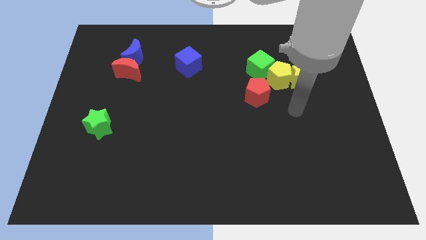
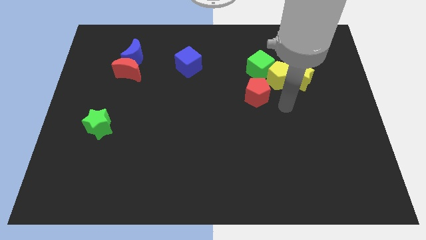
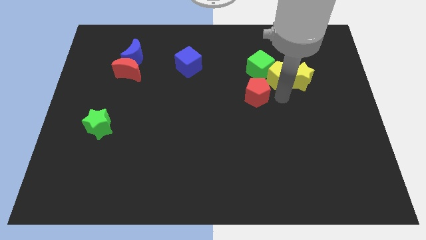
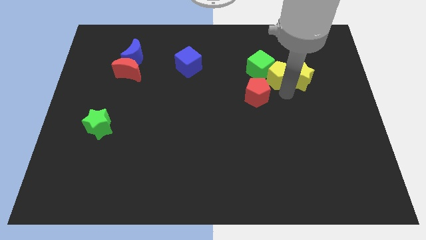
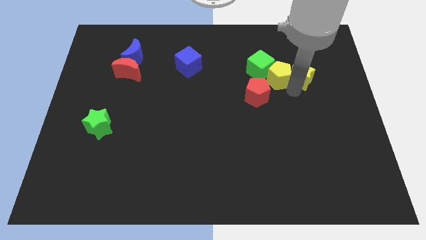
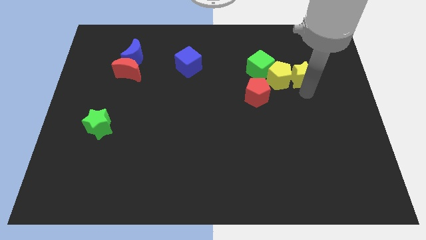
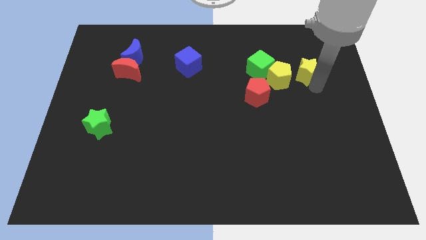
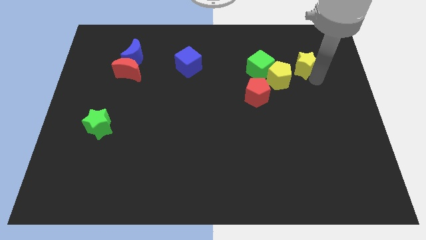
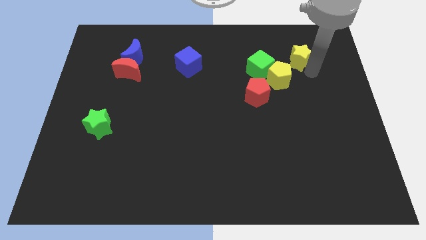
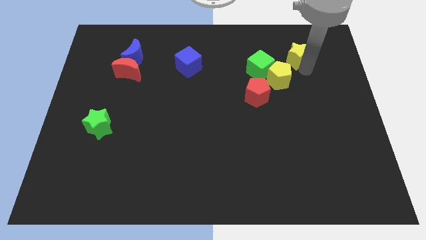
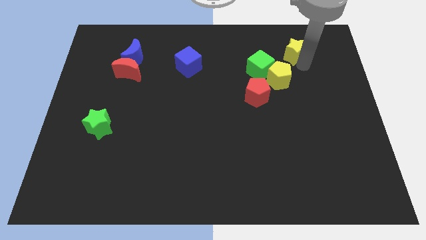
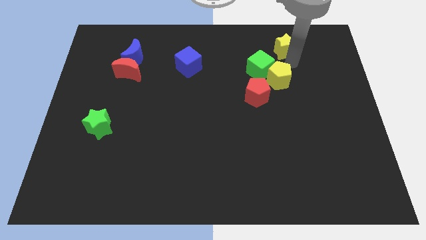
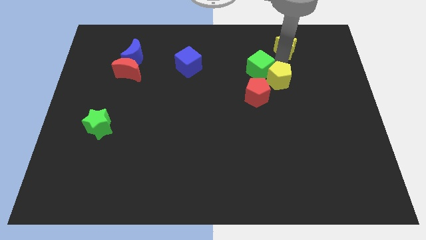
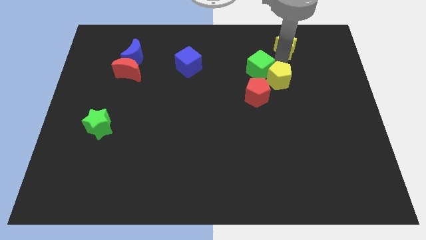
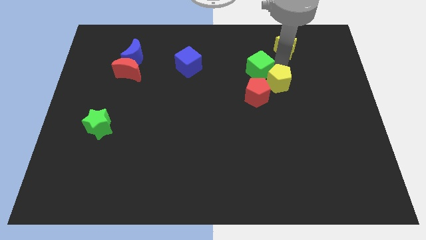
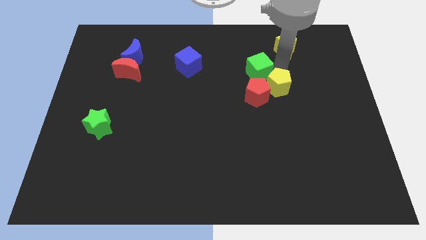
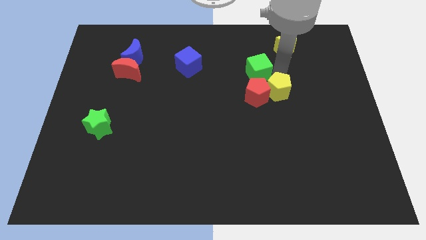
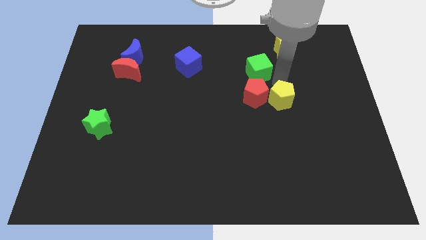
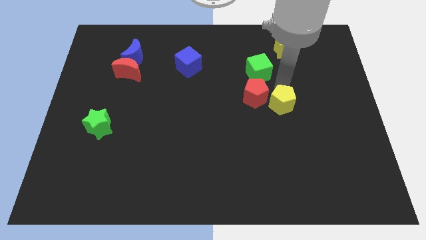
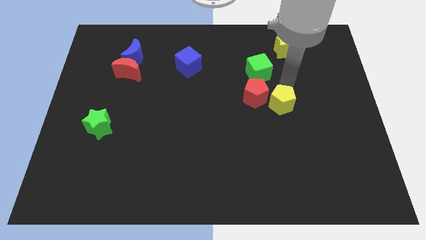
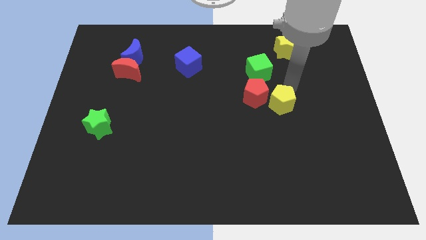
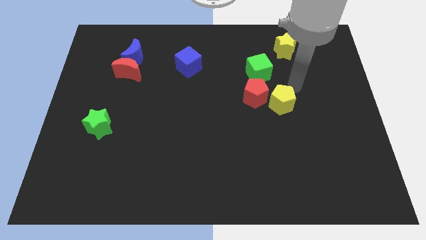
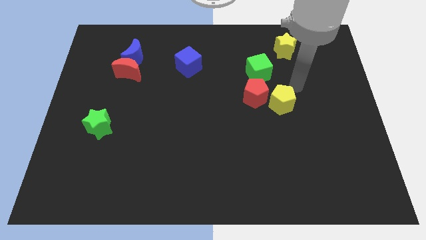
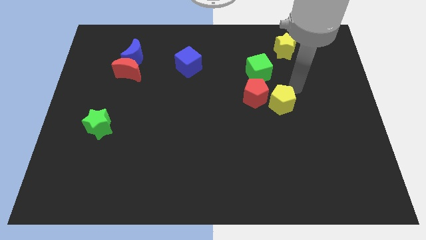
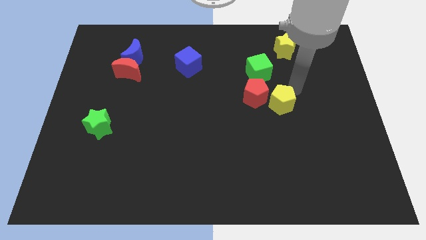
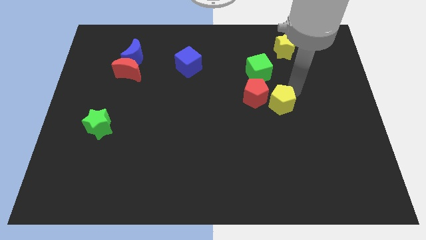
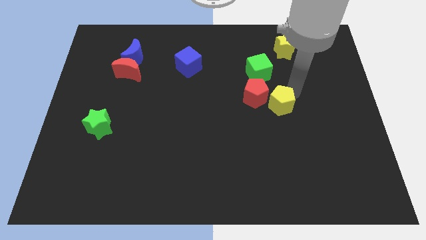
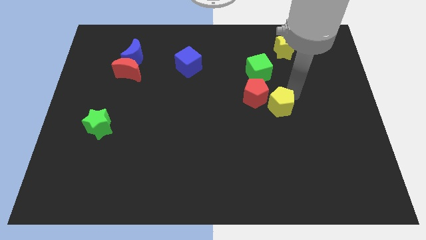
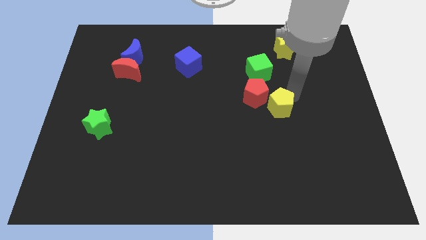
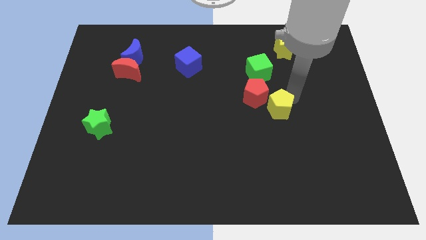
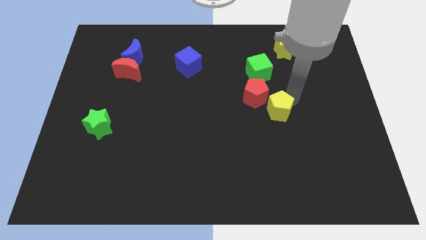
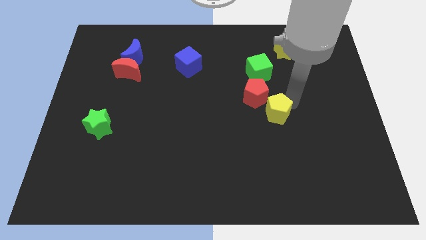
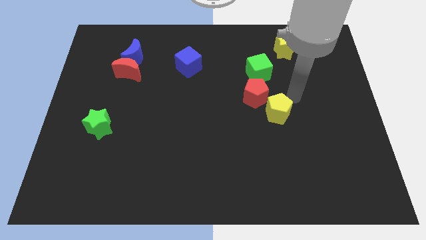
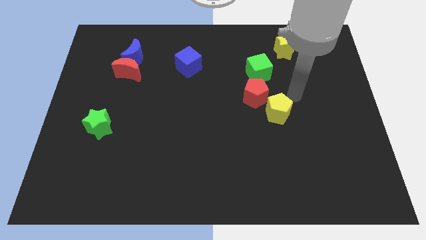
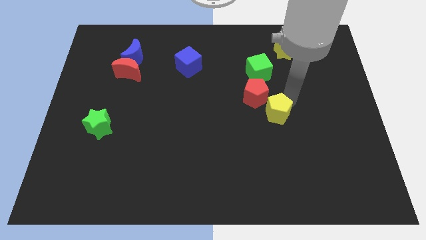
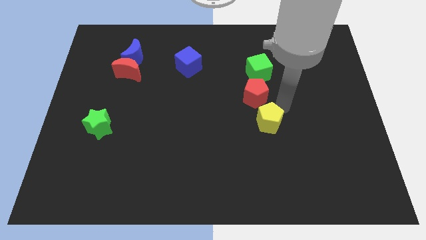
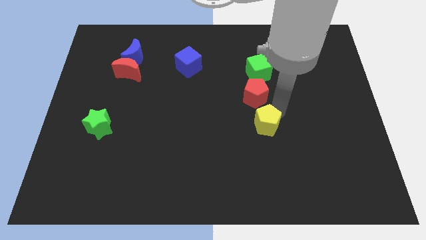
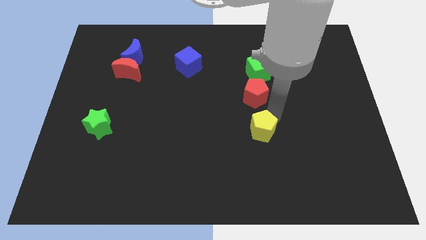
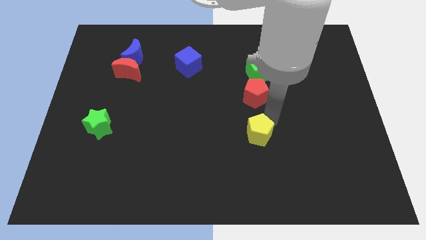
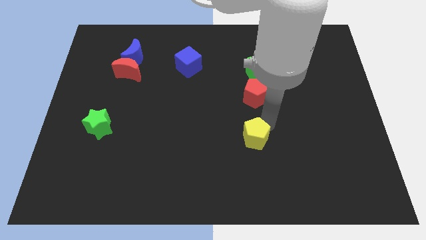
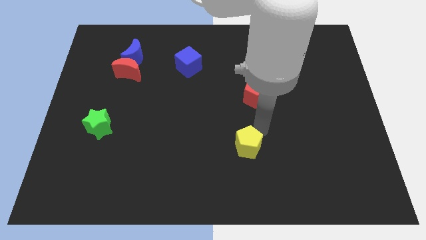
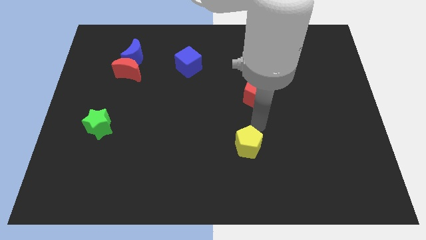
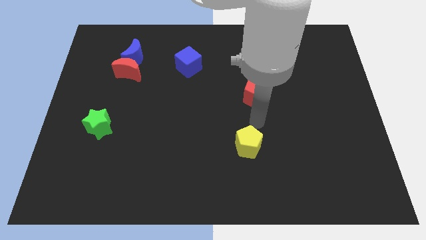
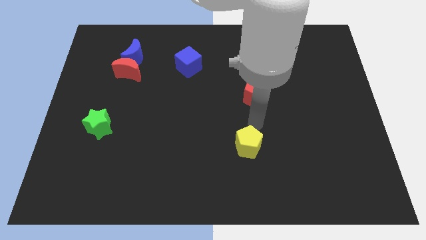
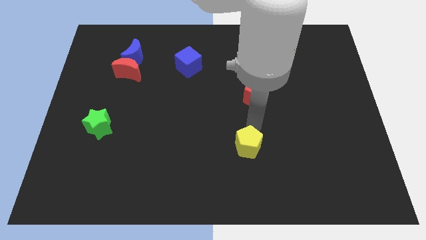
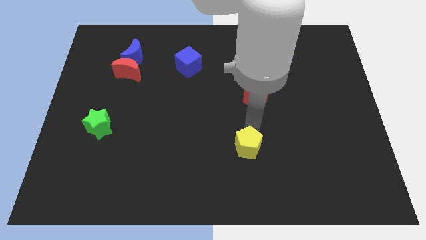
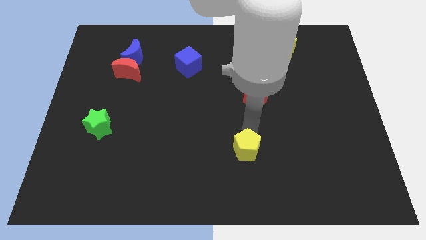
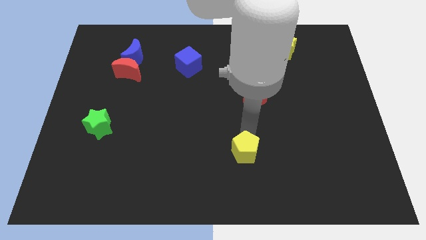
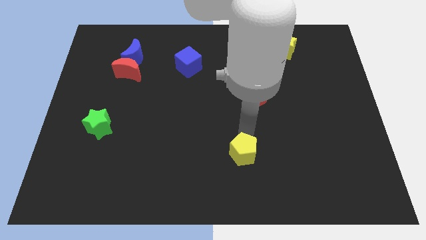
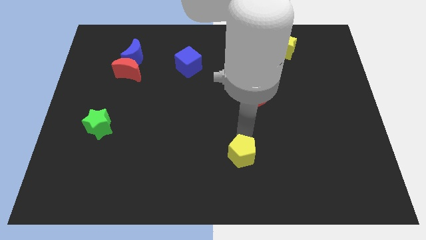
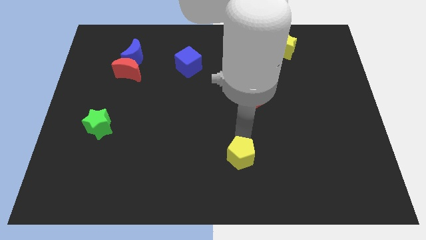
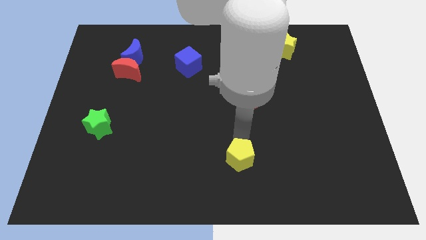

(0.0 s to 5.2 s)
put the yellow pentagon to the bottom

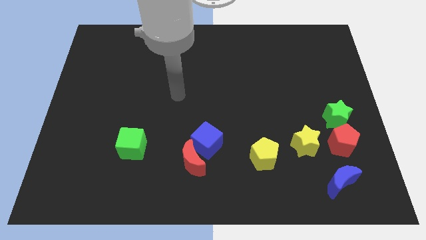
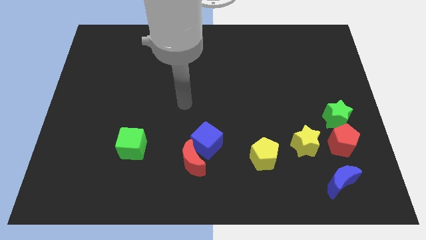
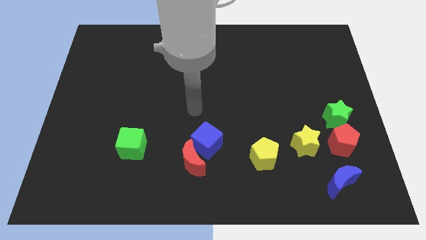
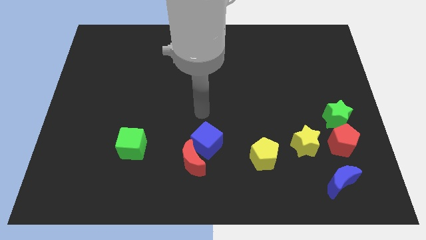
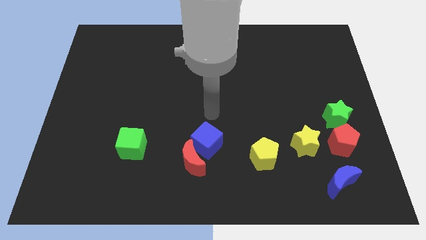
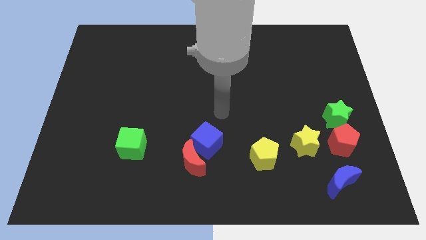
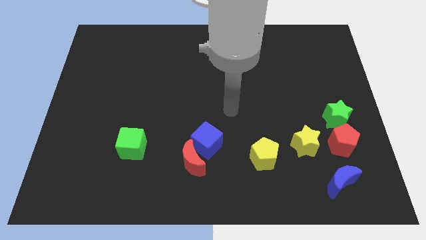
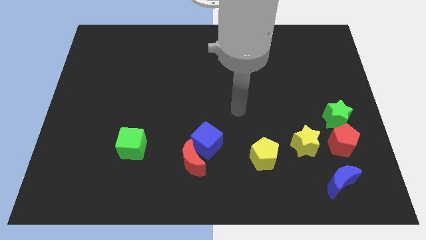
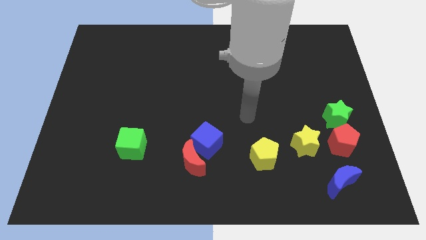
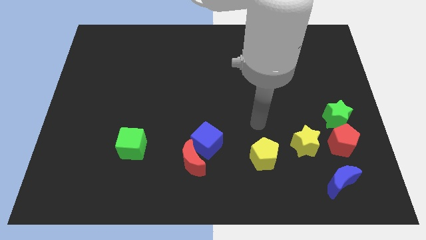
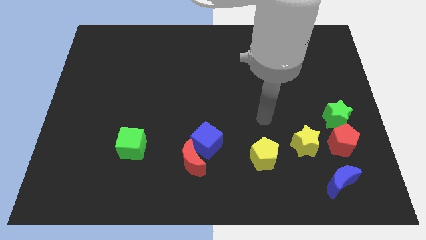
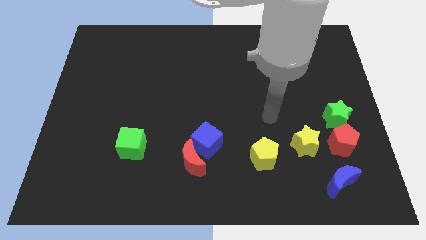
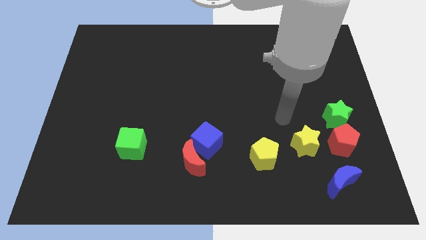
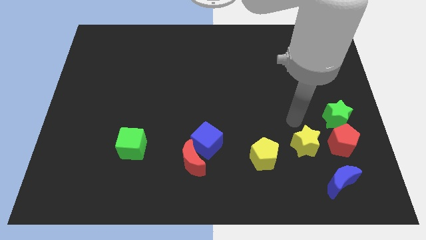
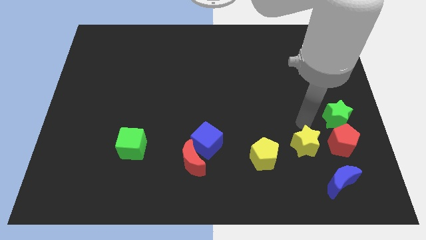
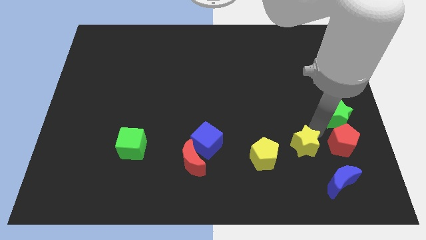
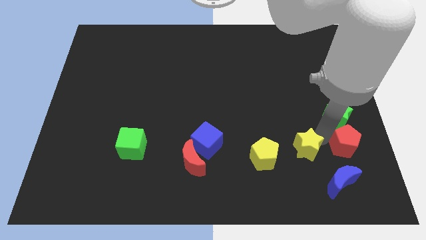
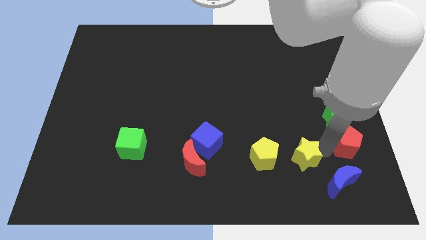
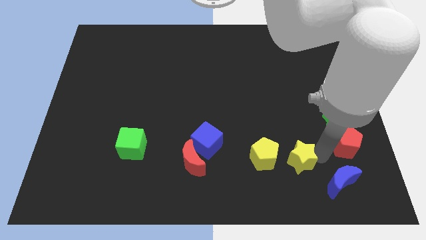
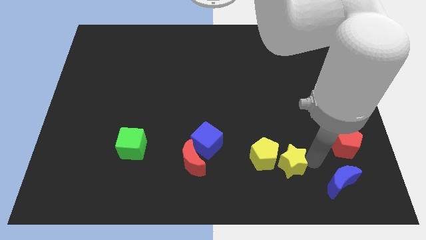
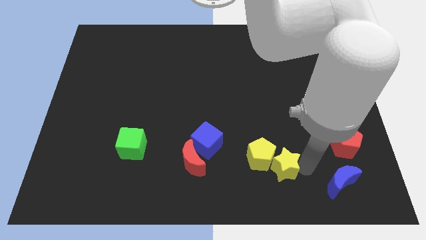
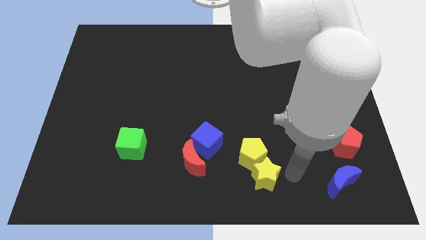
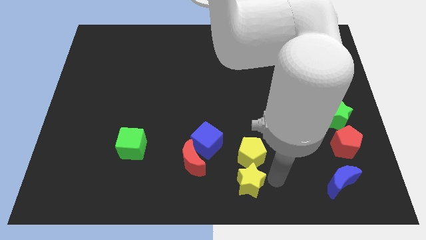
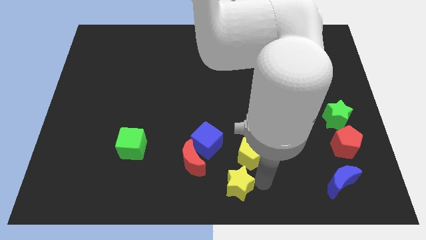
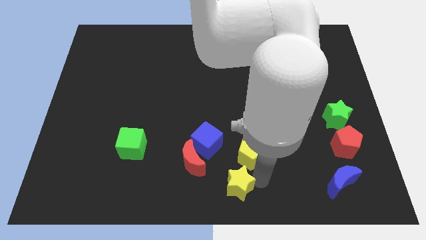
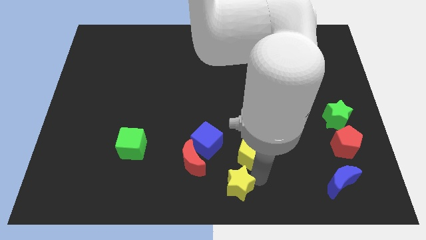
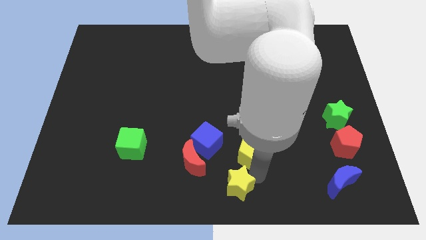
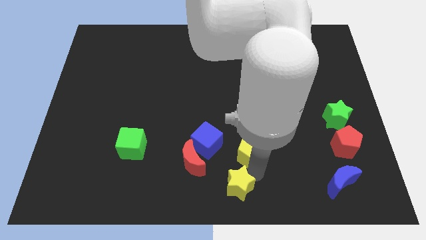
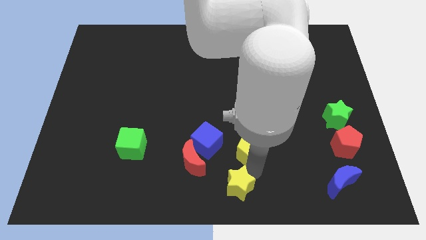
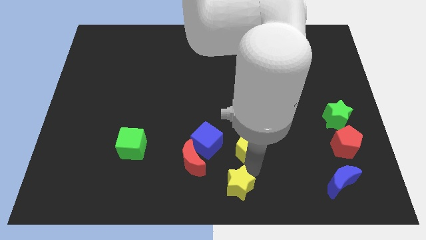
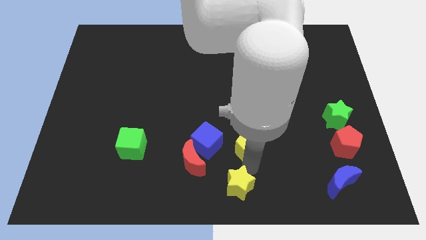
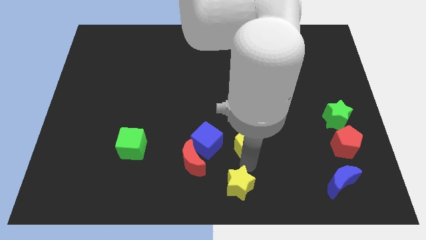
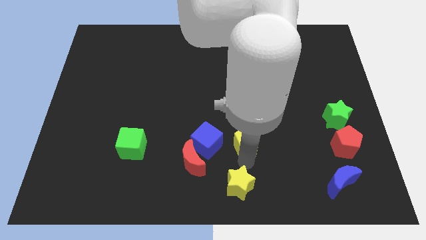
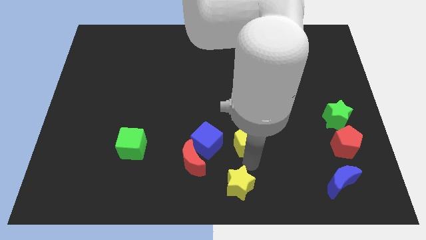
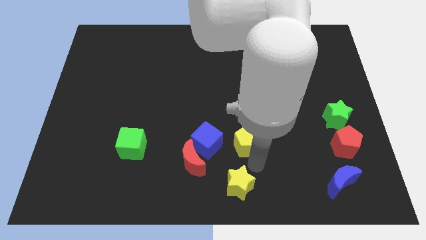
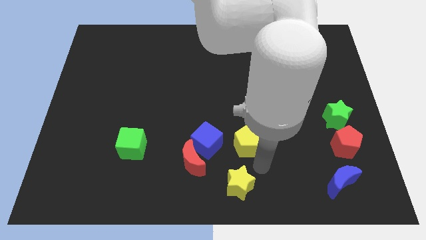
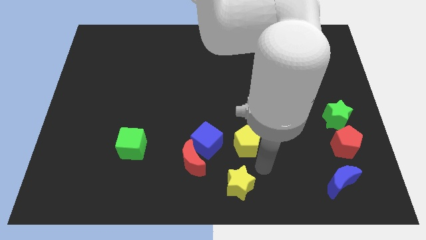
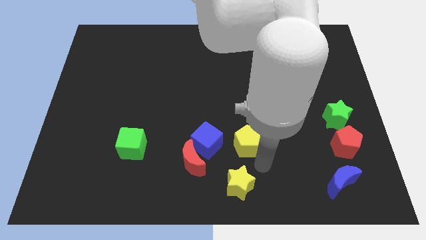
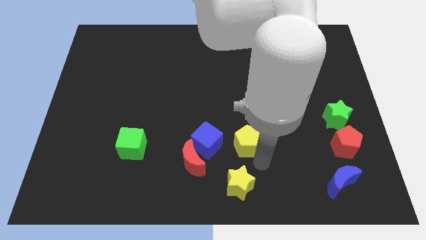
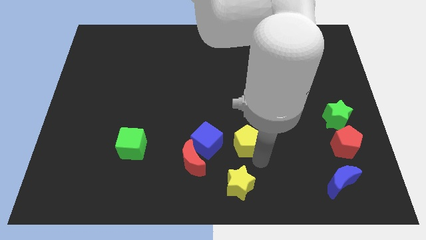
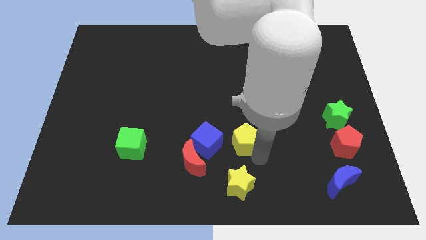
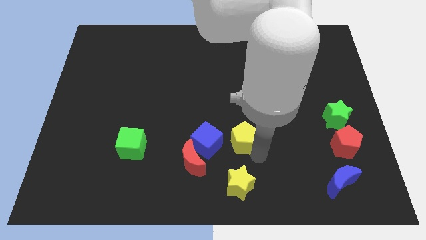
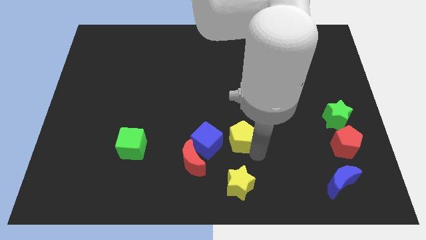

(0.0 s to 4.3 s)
put the yellow pentagon to the center
